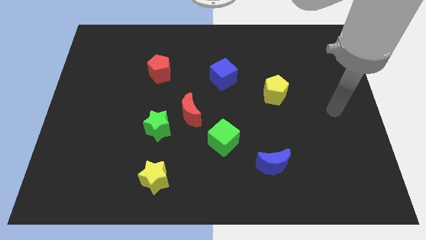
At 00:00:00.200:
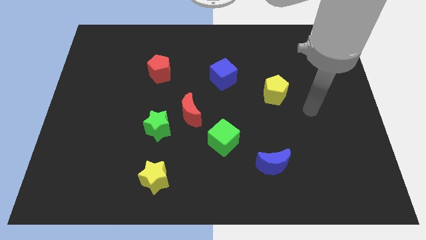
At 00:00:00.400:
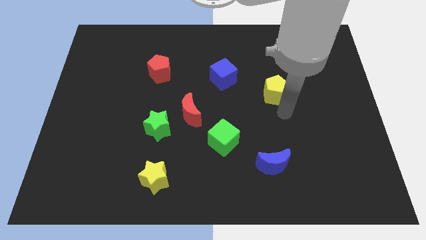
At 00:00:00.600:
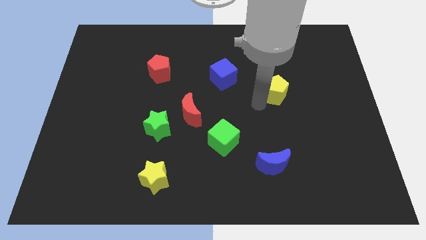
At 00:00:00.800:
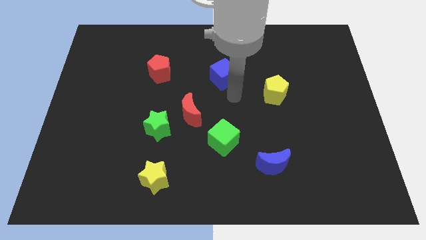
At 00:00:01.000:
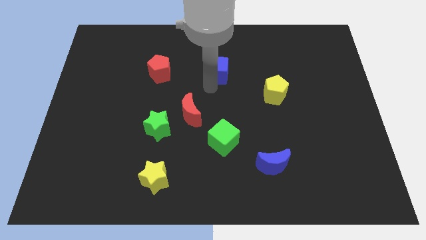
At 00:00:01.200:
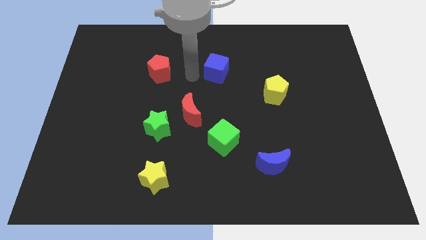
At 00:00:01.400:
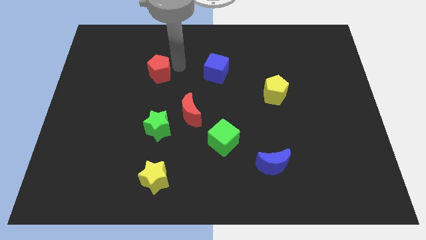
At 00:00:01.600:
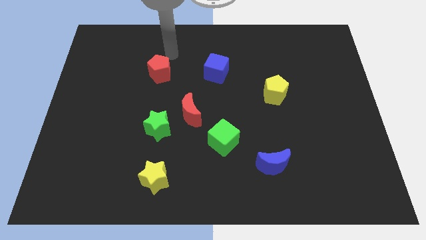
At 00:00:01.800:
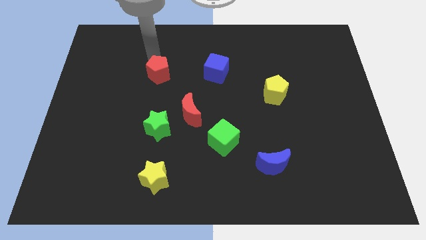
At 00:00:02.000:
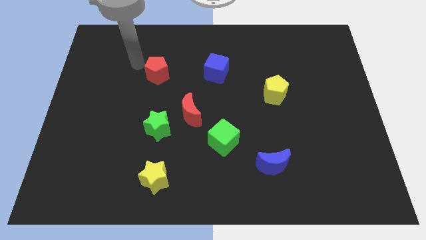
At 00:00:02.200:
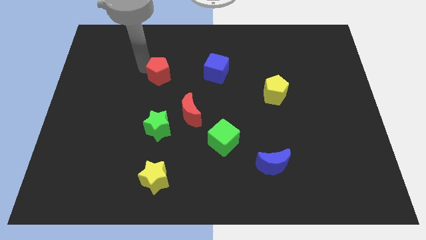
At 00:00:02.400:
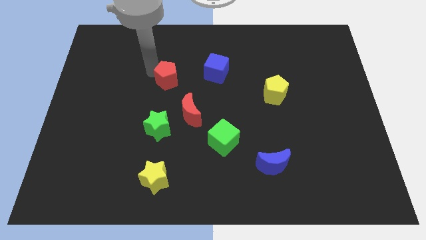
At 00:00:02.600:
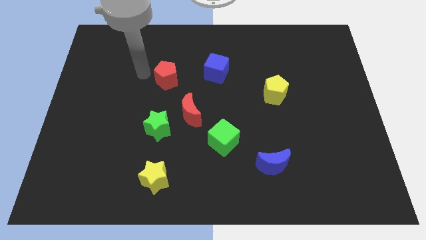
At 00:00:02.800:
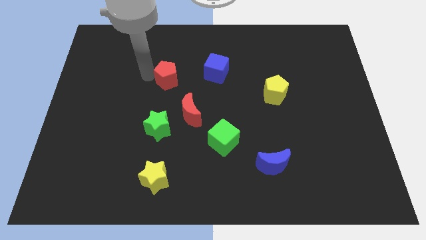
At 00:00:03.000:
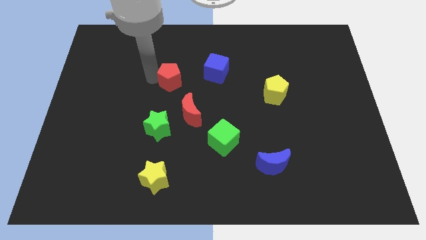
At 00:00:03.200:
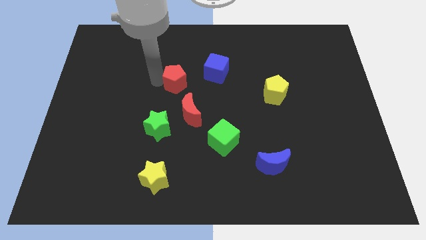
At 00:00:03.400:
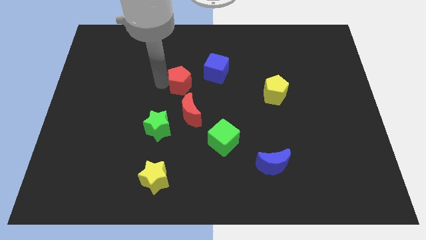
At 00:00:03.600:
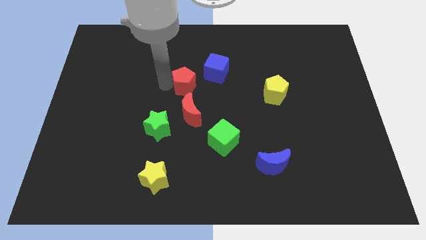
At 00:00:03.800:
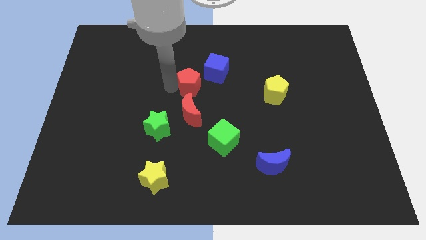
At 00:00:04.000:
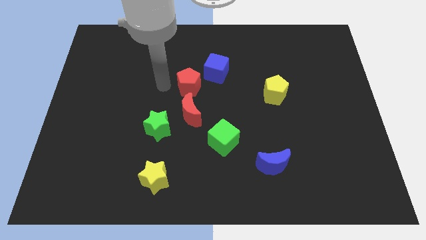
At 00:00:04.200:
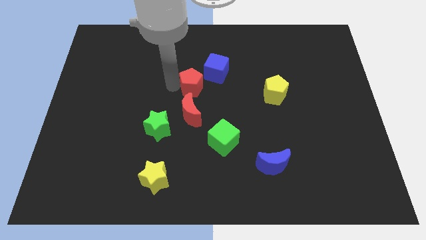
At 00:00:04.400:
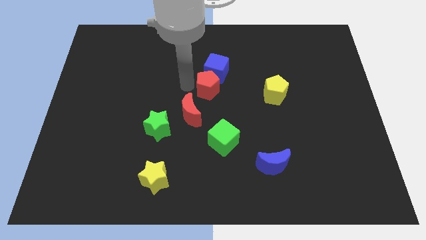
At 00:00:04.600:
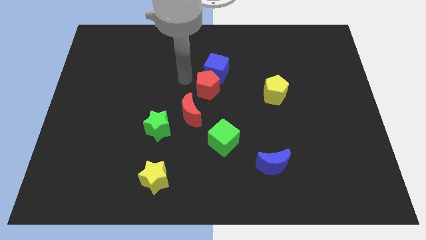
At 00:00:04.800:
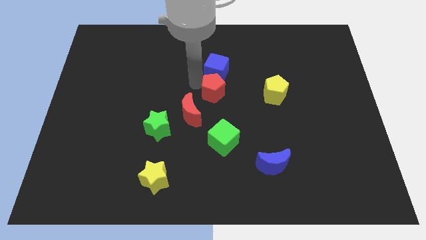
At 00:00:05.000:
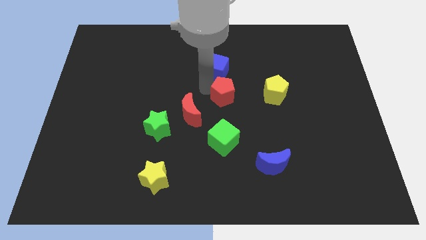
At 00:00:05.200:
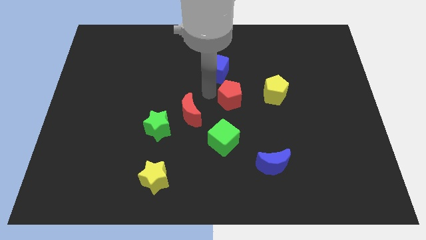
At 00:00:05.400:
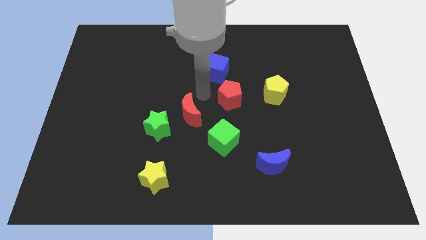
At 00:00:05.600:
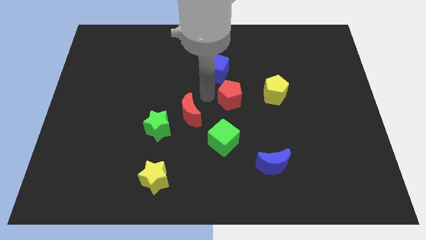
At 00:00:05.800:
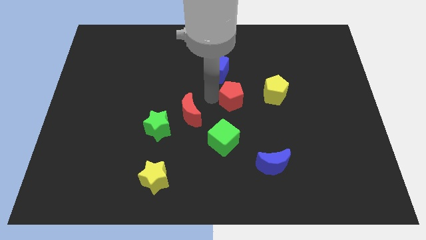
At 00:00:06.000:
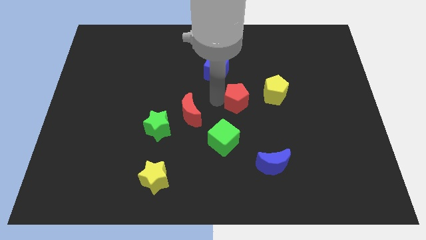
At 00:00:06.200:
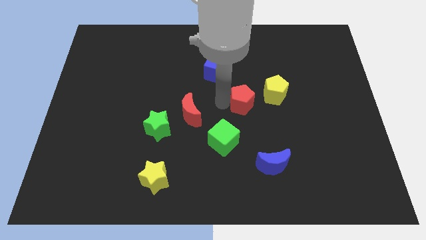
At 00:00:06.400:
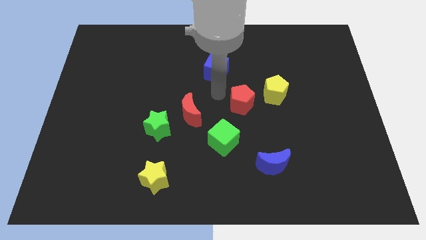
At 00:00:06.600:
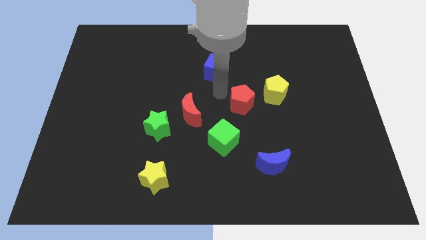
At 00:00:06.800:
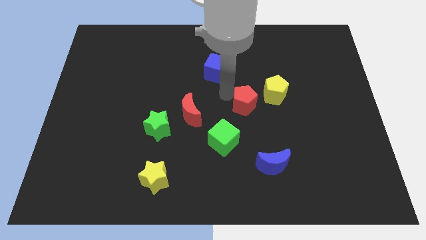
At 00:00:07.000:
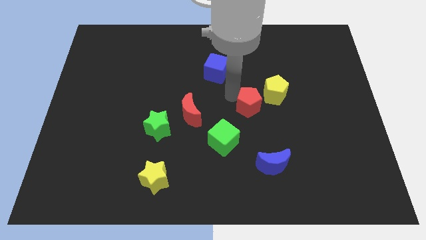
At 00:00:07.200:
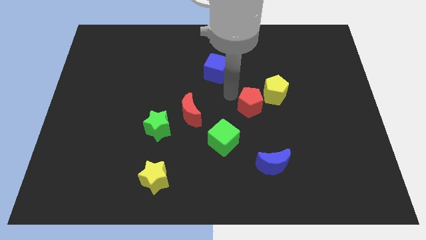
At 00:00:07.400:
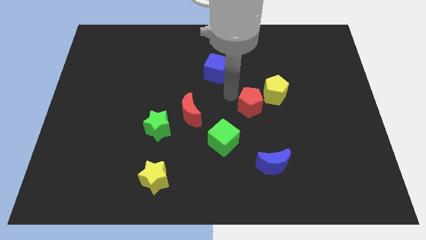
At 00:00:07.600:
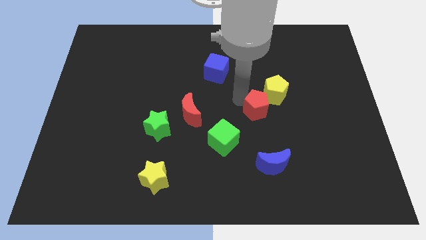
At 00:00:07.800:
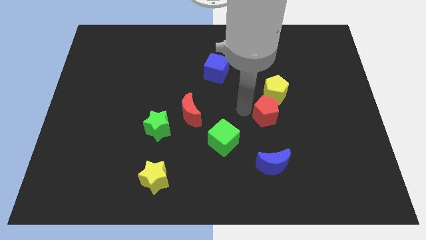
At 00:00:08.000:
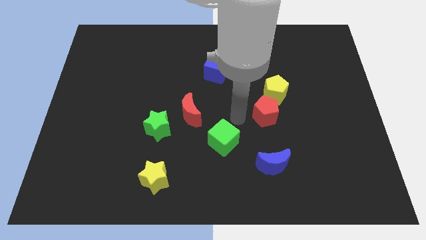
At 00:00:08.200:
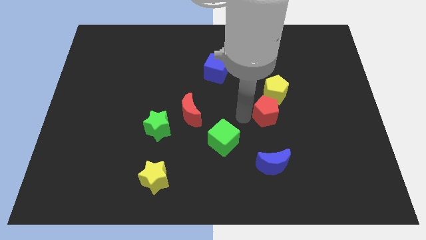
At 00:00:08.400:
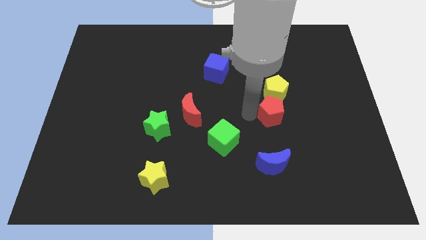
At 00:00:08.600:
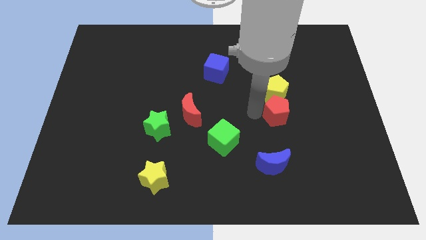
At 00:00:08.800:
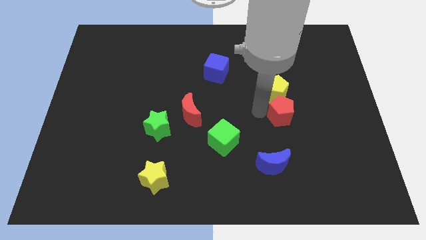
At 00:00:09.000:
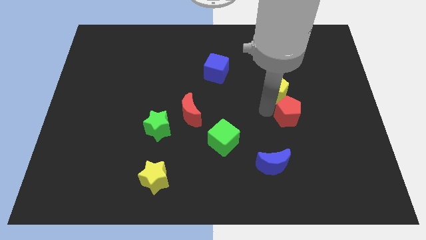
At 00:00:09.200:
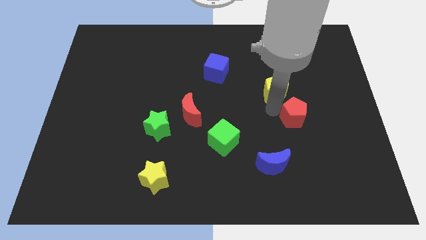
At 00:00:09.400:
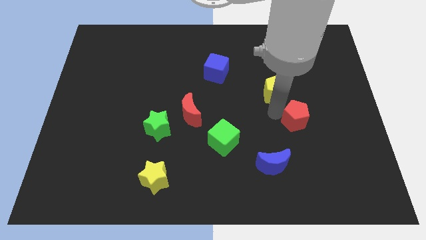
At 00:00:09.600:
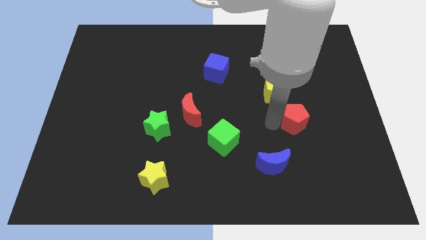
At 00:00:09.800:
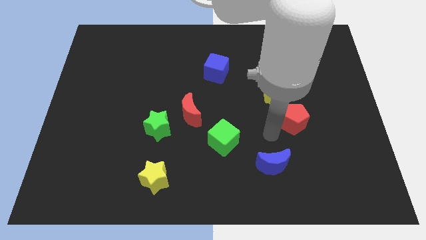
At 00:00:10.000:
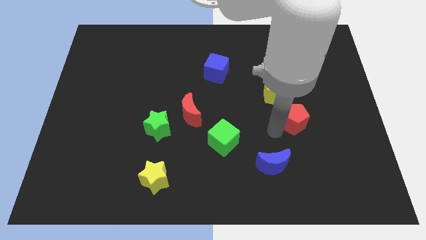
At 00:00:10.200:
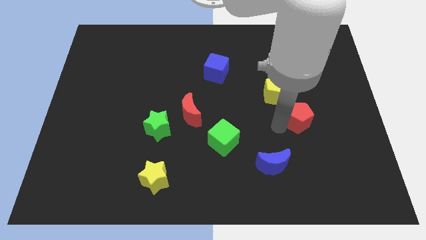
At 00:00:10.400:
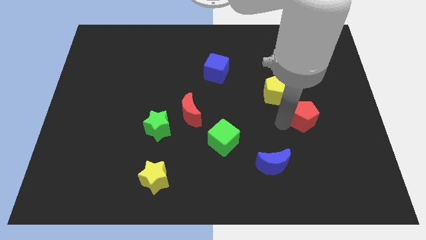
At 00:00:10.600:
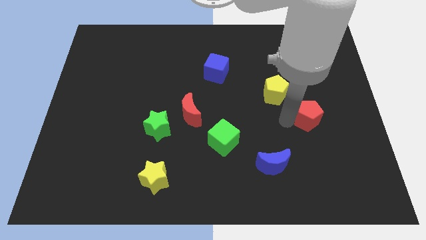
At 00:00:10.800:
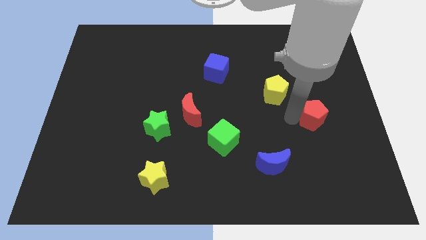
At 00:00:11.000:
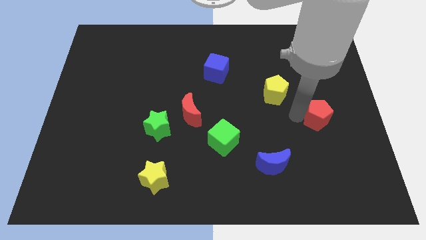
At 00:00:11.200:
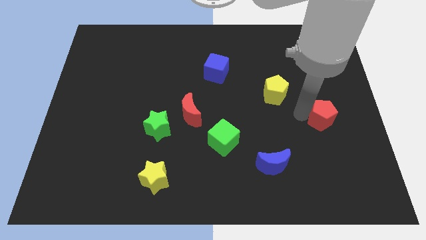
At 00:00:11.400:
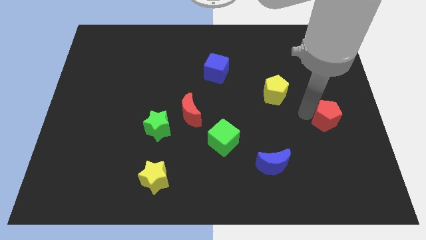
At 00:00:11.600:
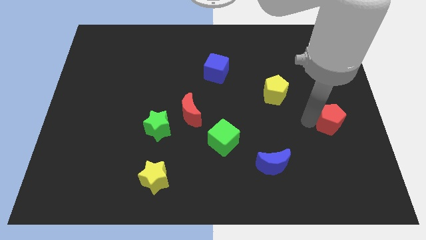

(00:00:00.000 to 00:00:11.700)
put the red pentagon to the right side of the board
